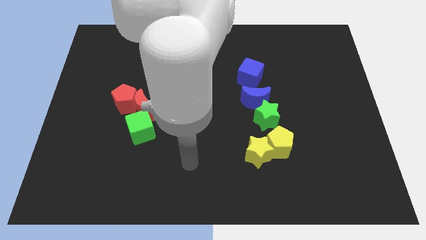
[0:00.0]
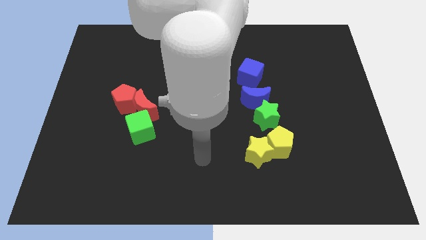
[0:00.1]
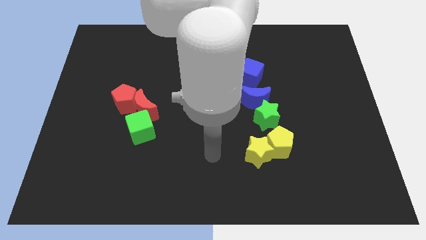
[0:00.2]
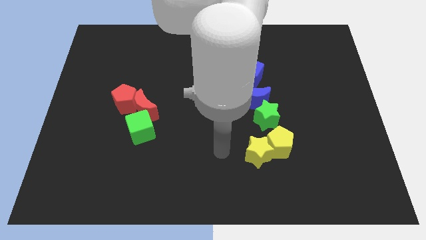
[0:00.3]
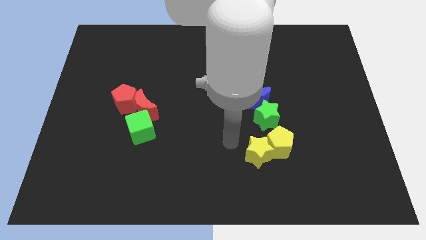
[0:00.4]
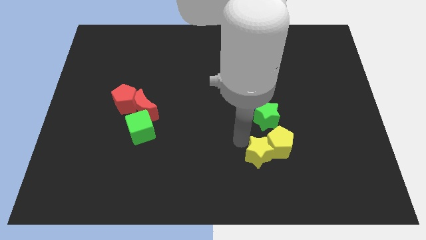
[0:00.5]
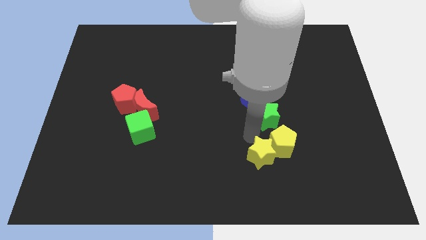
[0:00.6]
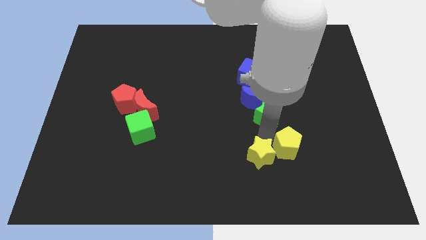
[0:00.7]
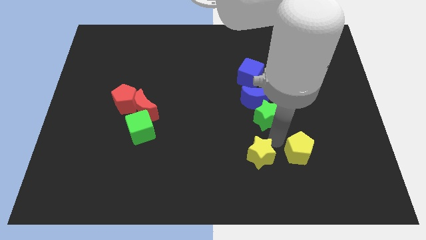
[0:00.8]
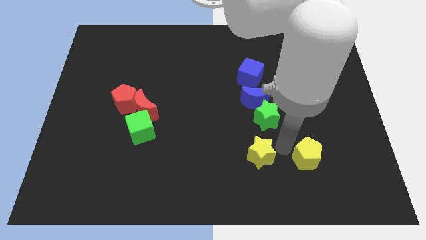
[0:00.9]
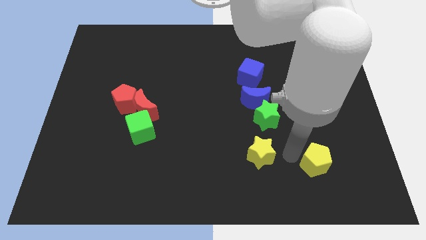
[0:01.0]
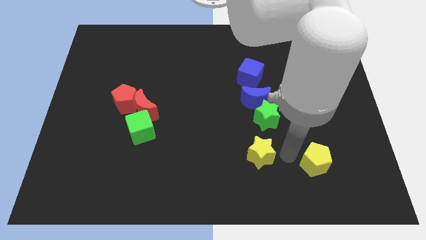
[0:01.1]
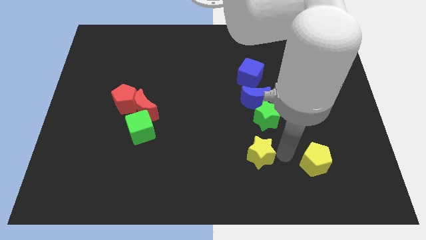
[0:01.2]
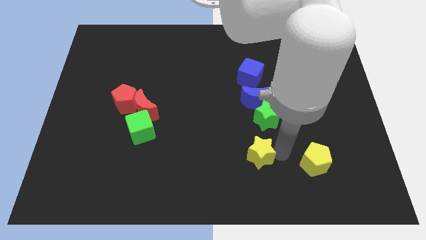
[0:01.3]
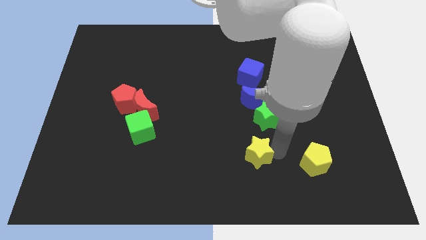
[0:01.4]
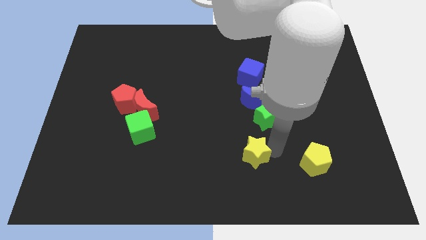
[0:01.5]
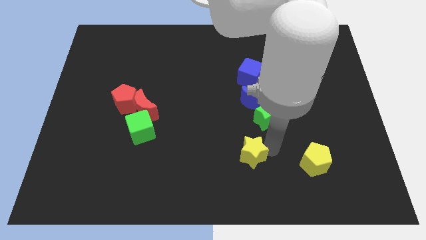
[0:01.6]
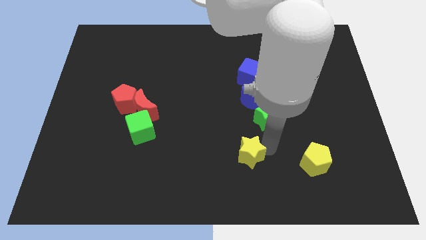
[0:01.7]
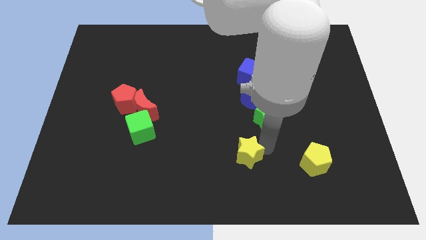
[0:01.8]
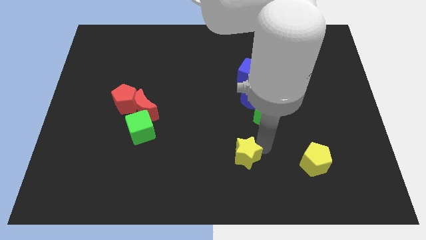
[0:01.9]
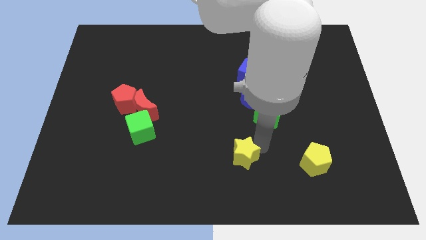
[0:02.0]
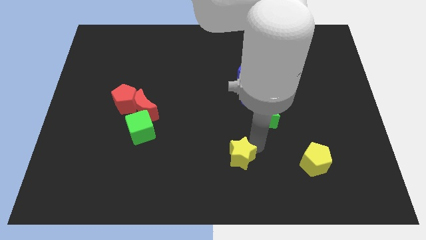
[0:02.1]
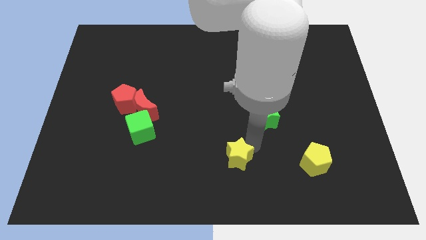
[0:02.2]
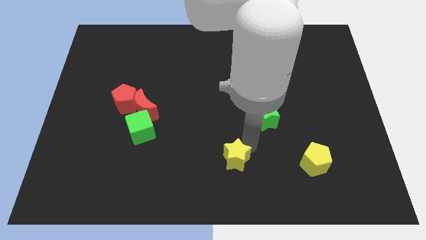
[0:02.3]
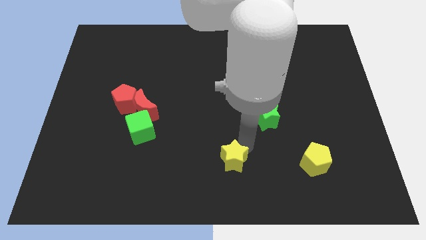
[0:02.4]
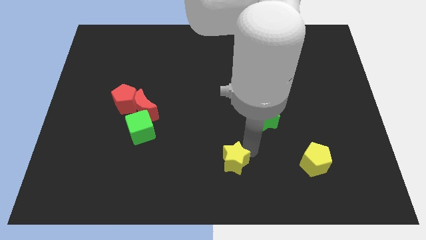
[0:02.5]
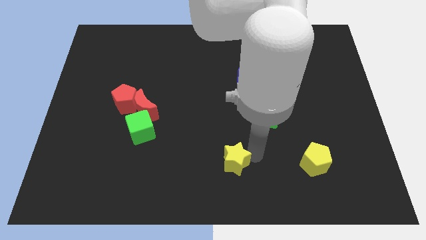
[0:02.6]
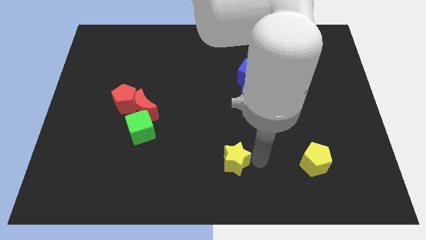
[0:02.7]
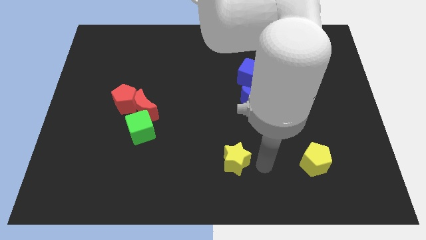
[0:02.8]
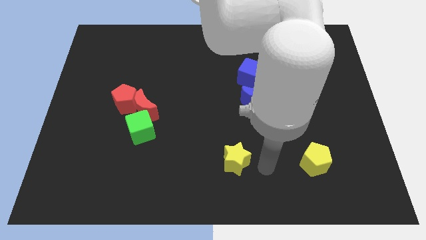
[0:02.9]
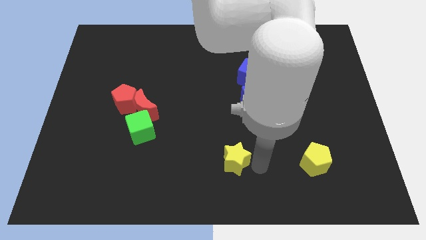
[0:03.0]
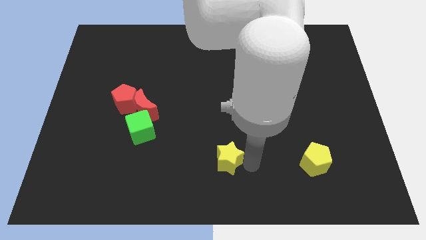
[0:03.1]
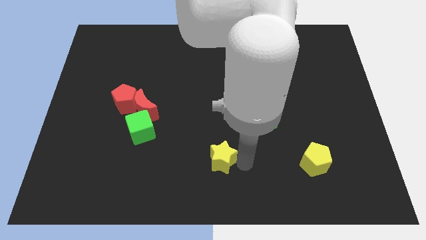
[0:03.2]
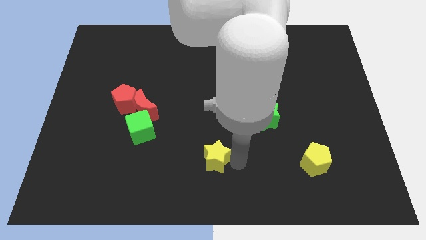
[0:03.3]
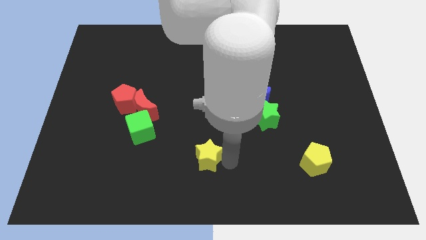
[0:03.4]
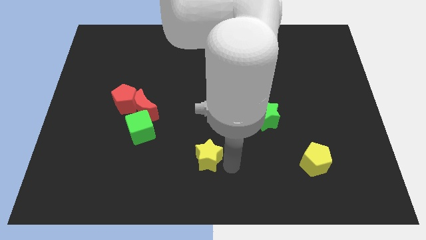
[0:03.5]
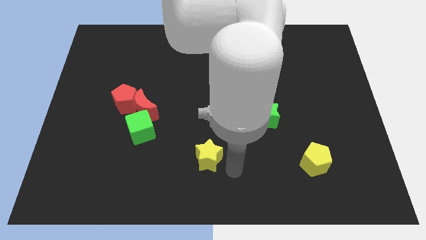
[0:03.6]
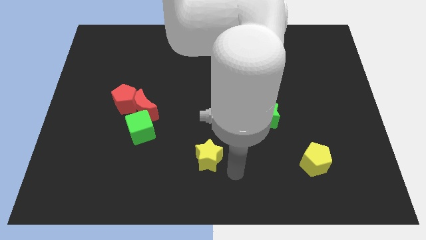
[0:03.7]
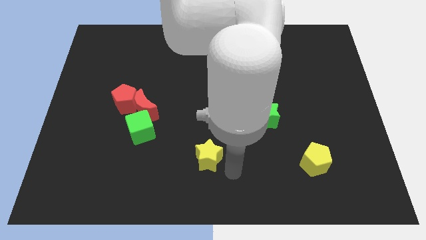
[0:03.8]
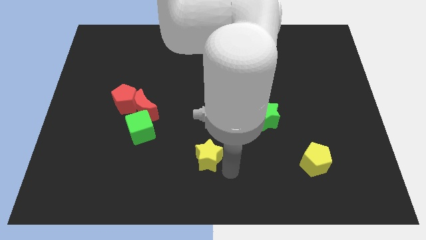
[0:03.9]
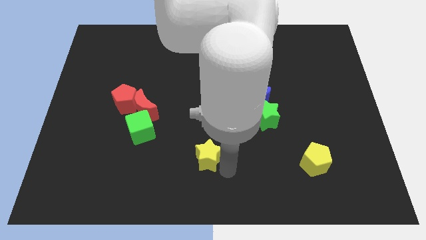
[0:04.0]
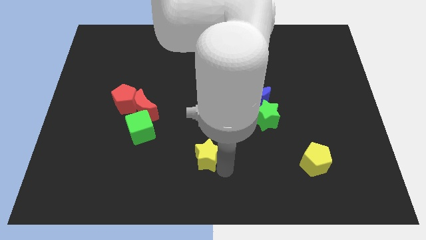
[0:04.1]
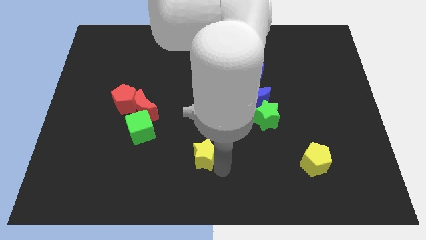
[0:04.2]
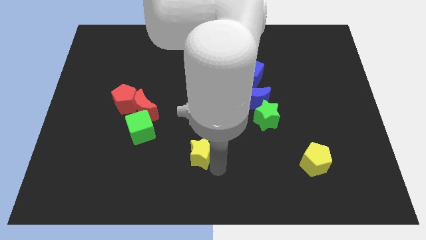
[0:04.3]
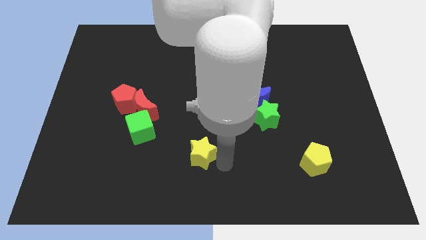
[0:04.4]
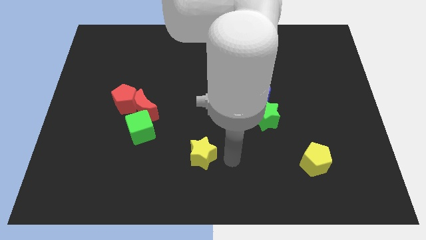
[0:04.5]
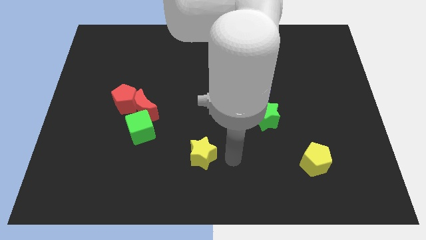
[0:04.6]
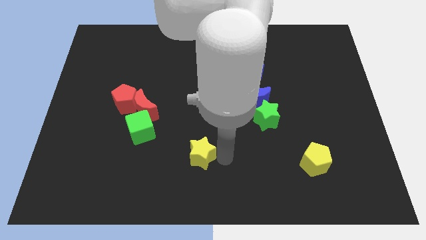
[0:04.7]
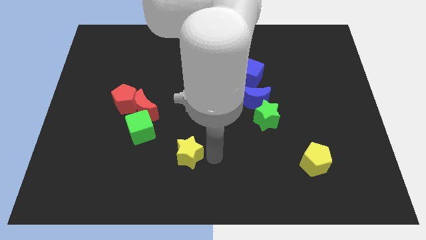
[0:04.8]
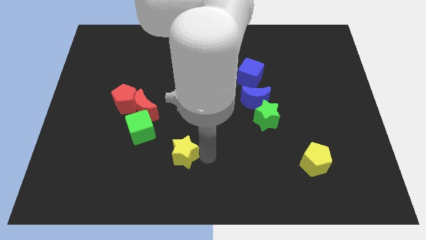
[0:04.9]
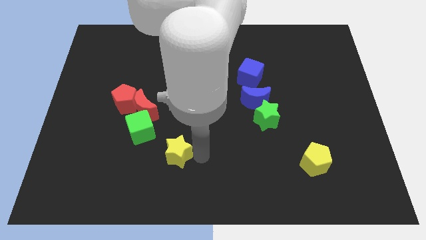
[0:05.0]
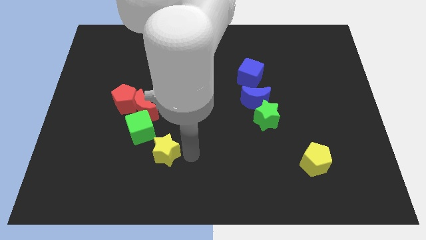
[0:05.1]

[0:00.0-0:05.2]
push the yellow star left

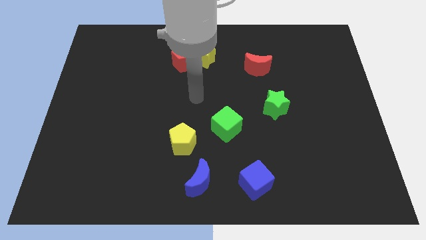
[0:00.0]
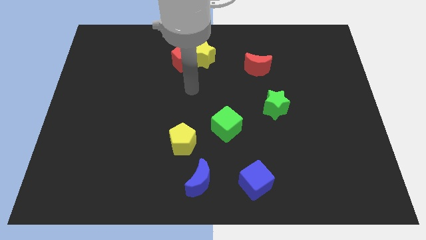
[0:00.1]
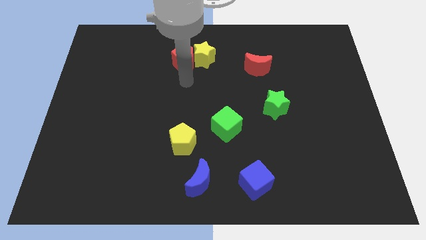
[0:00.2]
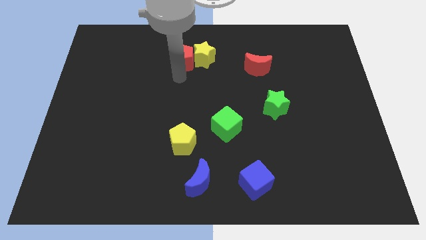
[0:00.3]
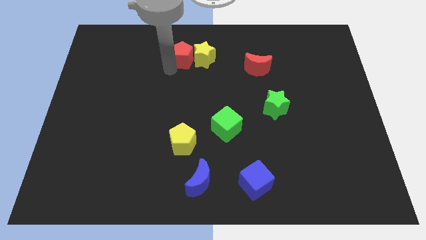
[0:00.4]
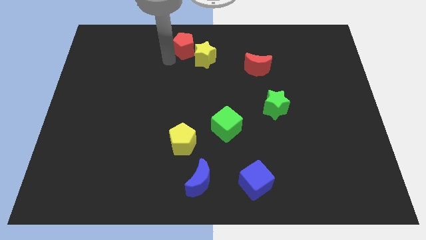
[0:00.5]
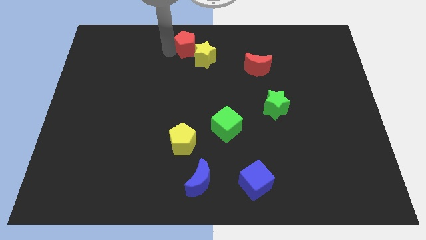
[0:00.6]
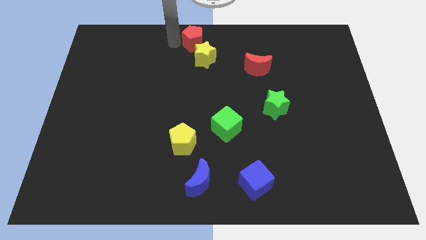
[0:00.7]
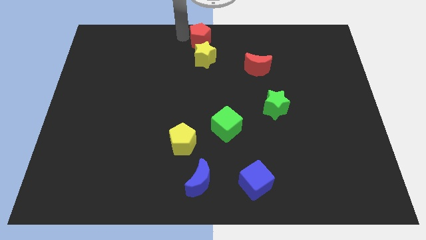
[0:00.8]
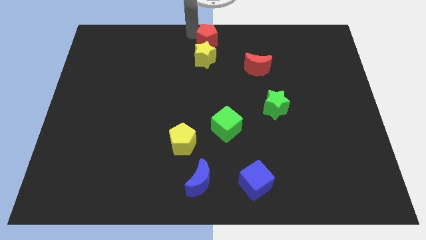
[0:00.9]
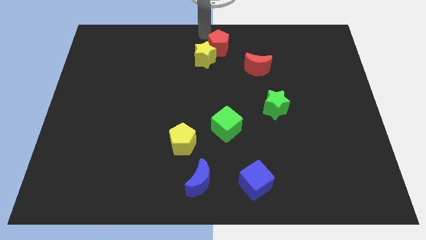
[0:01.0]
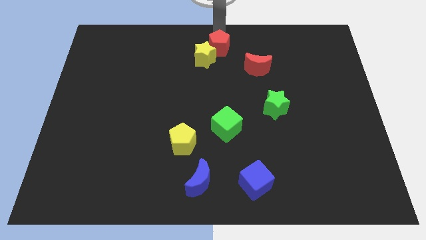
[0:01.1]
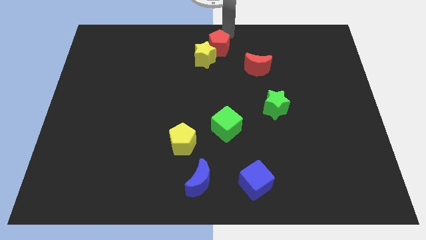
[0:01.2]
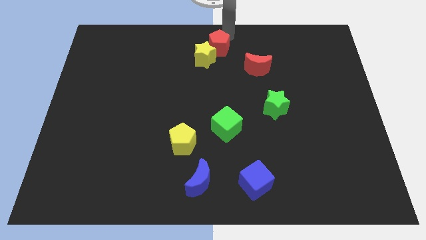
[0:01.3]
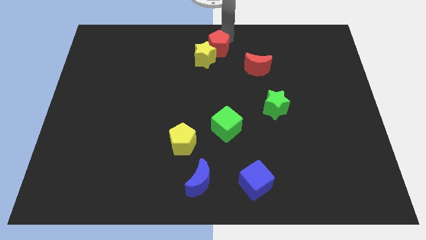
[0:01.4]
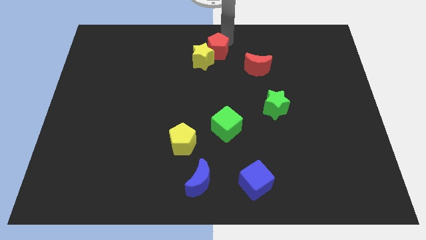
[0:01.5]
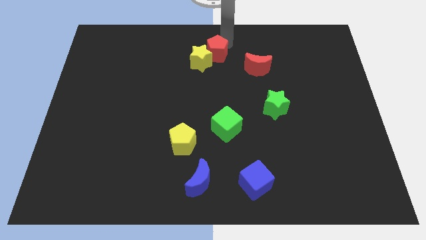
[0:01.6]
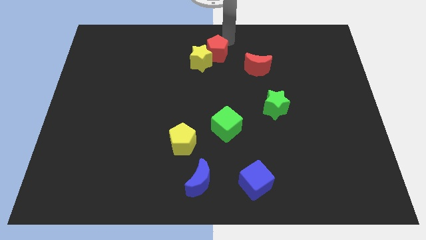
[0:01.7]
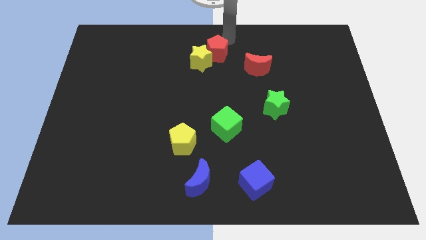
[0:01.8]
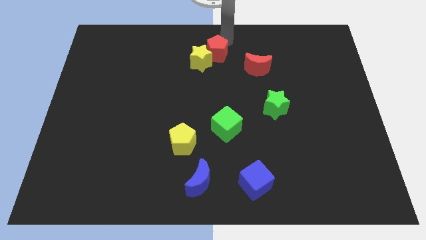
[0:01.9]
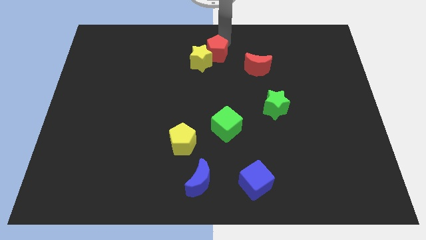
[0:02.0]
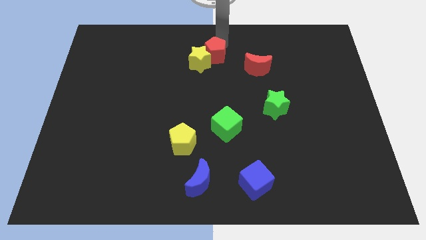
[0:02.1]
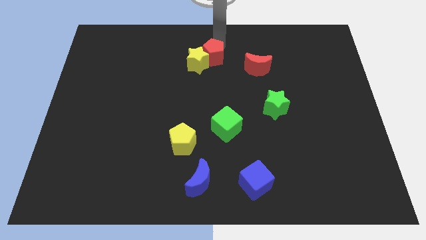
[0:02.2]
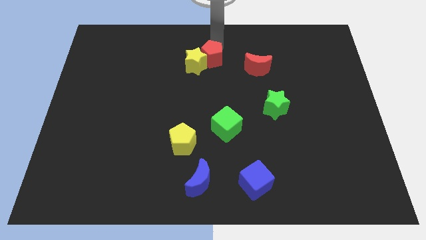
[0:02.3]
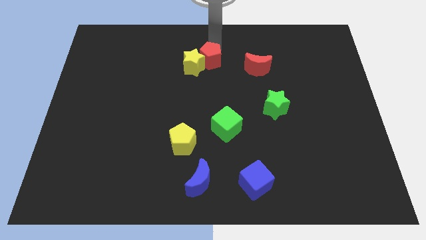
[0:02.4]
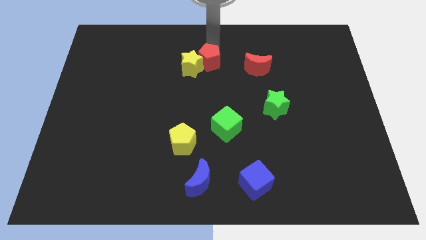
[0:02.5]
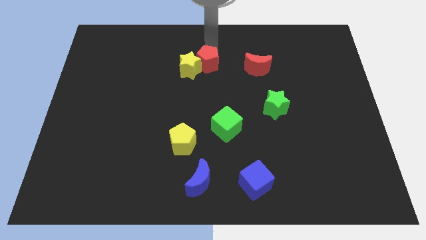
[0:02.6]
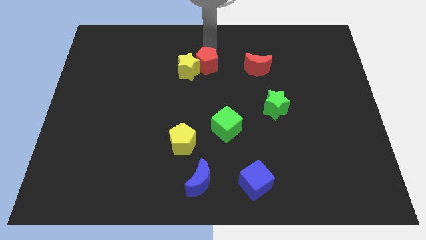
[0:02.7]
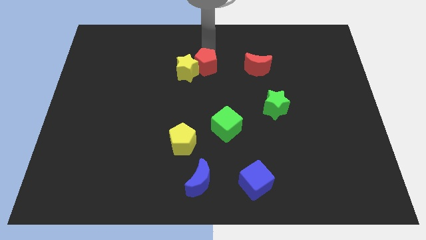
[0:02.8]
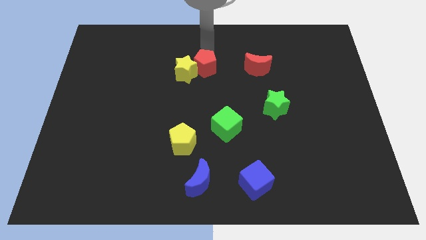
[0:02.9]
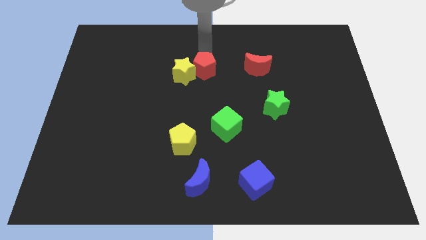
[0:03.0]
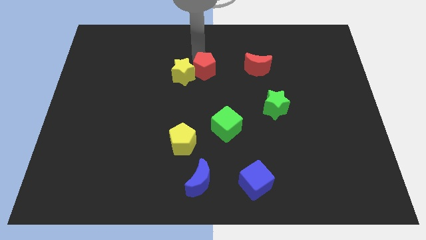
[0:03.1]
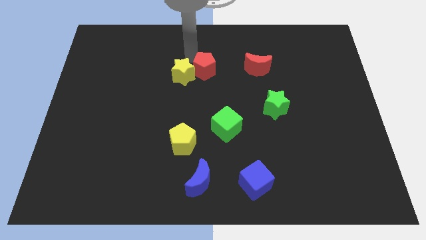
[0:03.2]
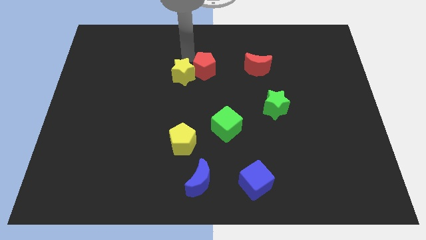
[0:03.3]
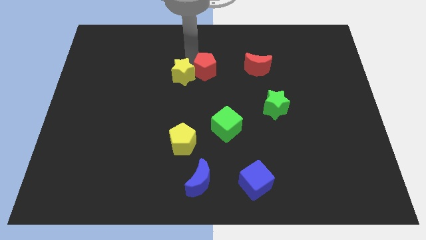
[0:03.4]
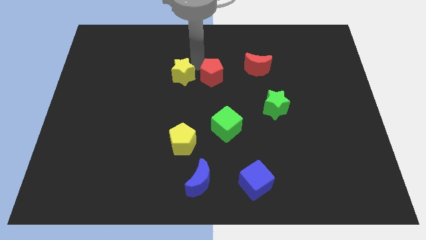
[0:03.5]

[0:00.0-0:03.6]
slide the red pentagon down and right a little

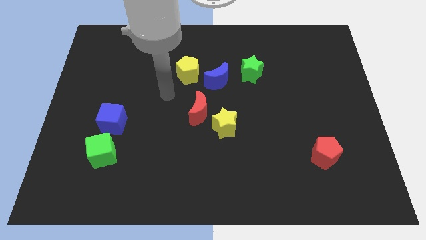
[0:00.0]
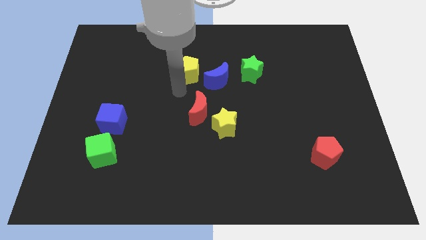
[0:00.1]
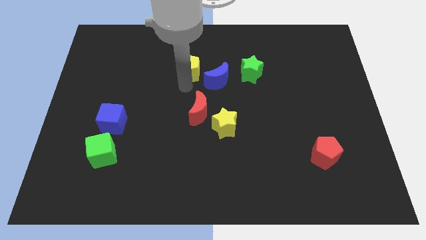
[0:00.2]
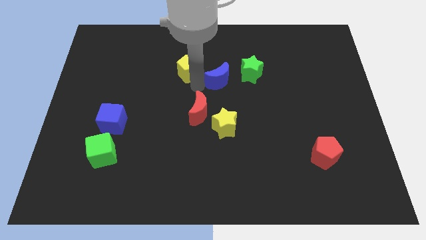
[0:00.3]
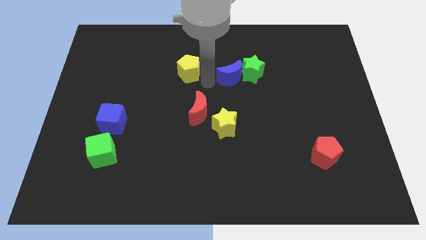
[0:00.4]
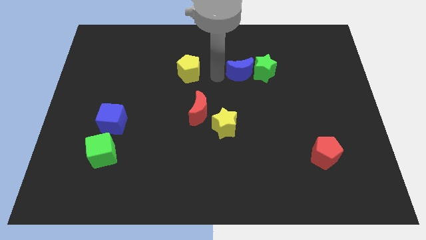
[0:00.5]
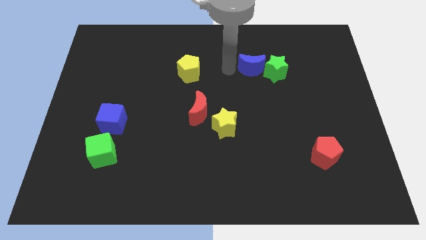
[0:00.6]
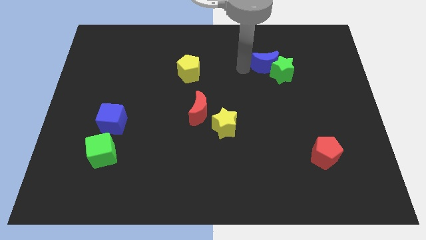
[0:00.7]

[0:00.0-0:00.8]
slide the green star to the right slightly
